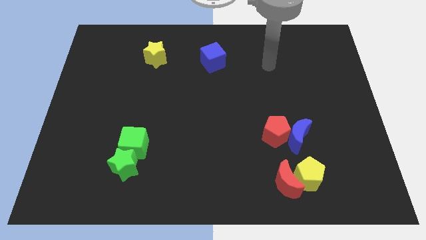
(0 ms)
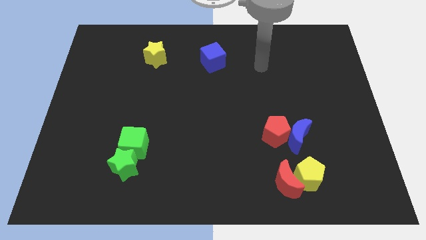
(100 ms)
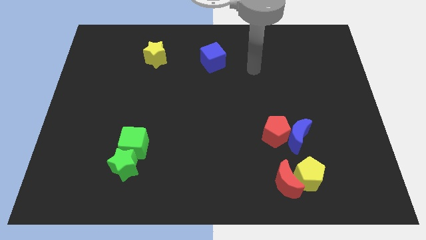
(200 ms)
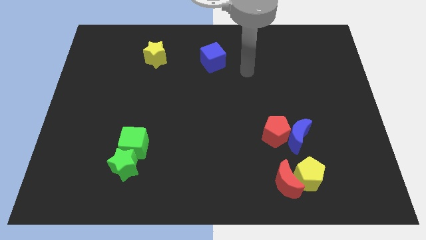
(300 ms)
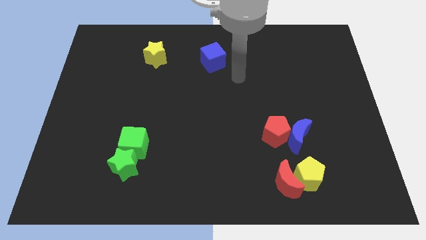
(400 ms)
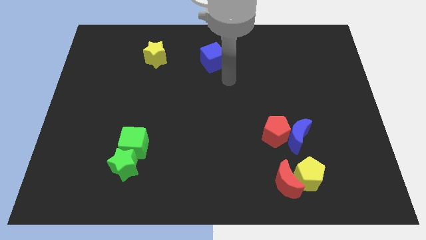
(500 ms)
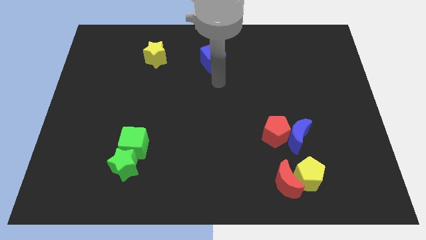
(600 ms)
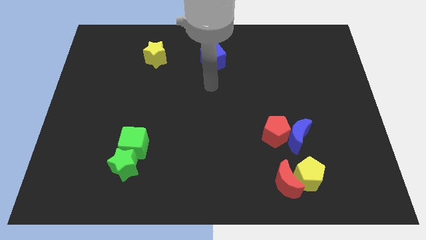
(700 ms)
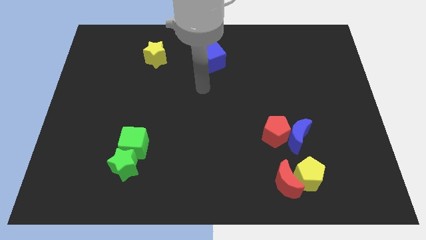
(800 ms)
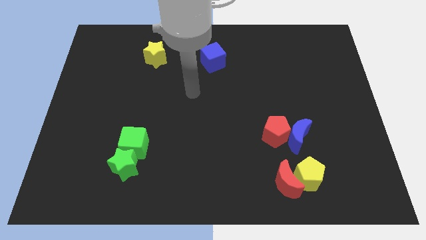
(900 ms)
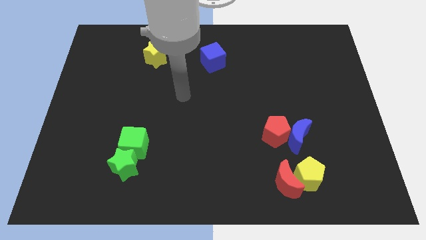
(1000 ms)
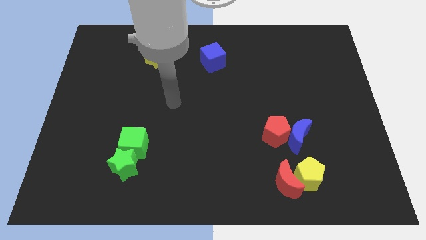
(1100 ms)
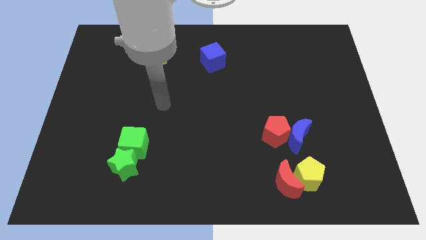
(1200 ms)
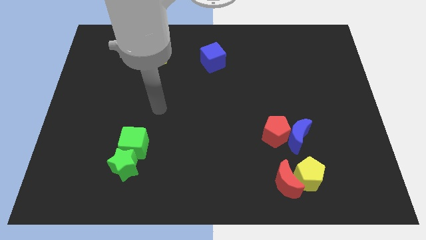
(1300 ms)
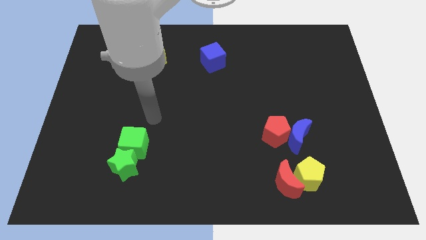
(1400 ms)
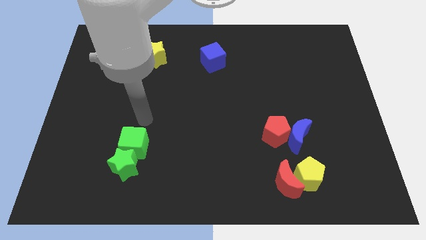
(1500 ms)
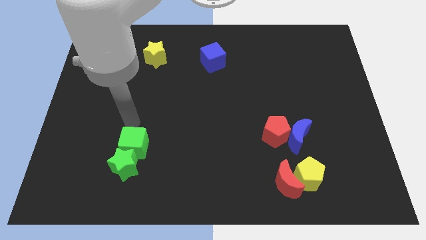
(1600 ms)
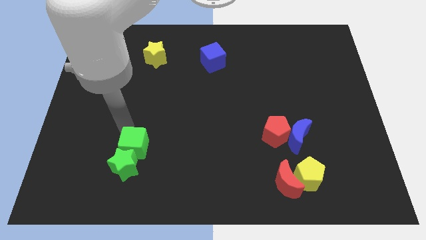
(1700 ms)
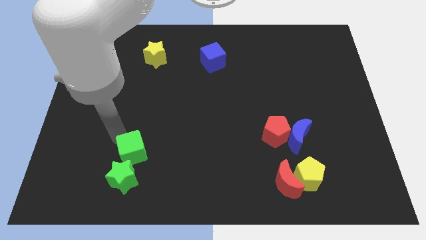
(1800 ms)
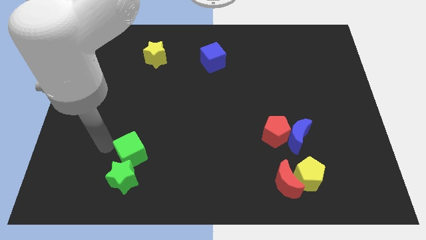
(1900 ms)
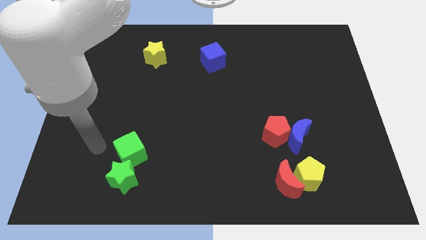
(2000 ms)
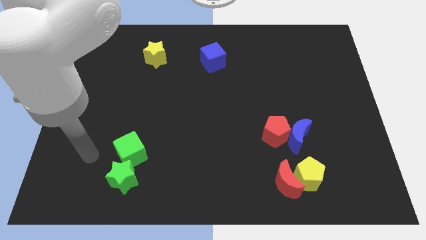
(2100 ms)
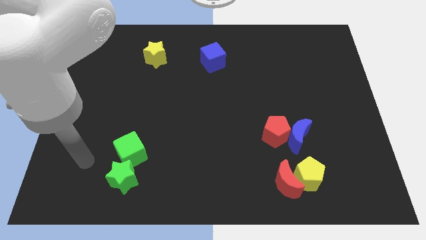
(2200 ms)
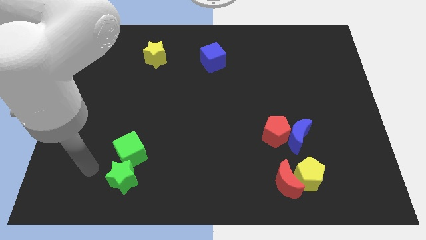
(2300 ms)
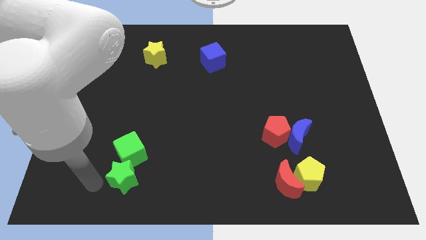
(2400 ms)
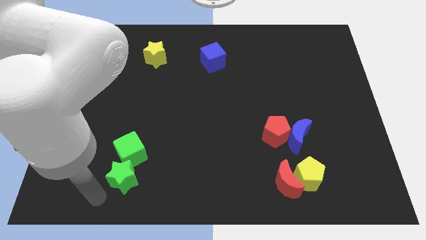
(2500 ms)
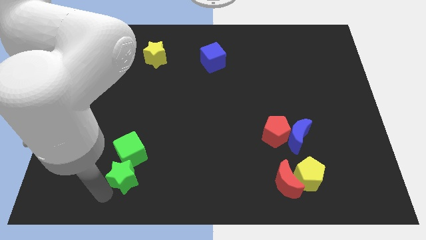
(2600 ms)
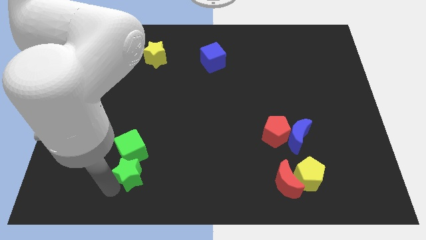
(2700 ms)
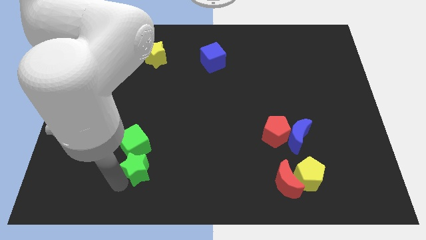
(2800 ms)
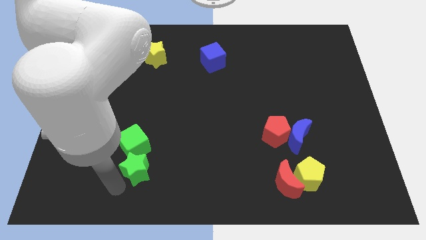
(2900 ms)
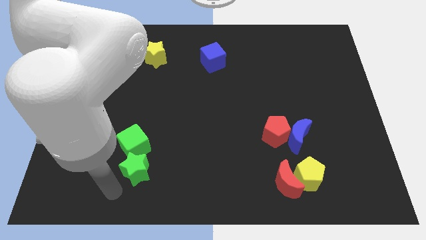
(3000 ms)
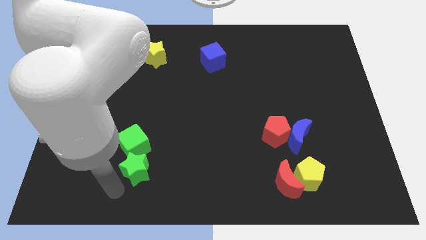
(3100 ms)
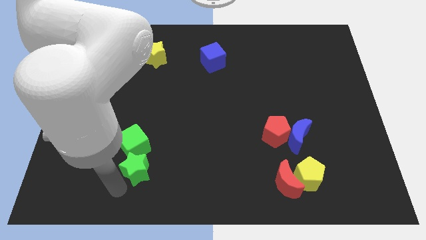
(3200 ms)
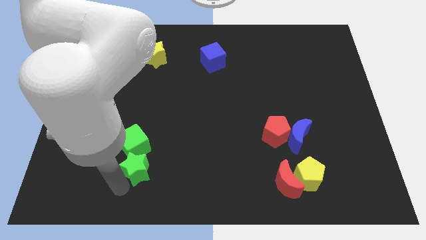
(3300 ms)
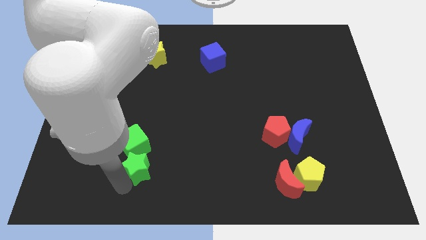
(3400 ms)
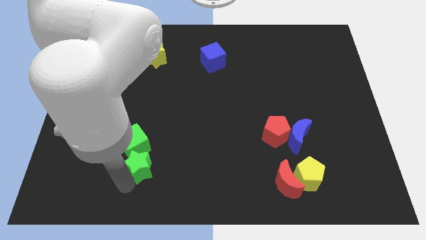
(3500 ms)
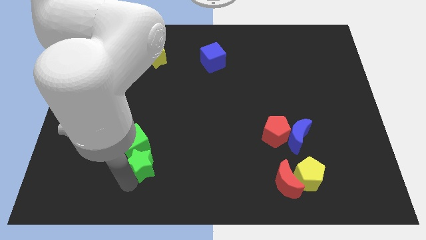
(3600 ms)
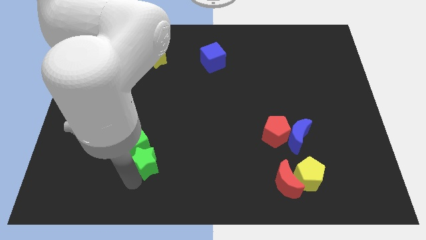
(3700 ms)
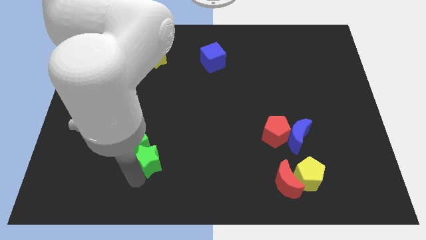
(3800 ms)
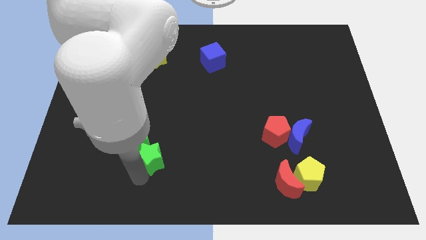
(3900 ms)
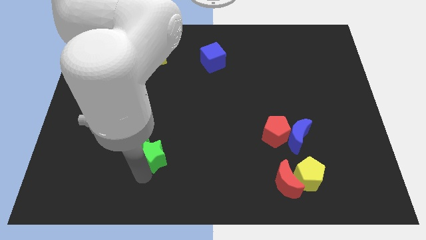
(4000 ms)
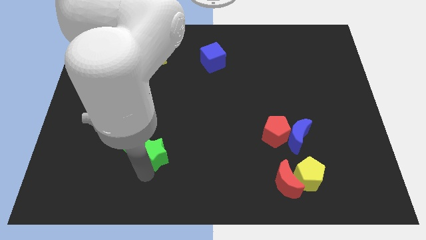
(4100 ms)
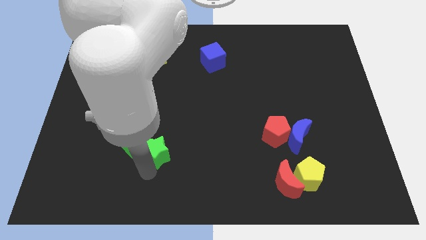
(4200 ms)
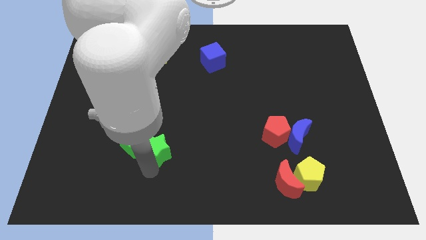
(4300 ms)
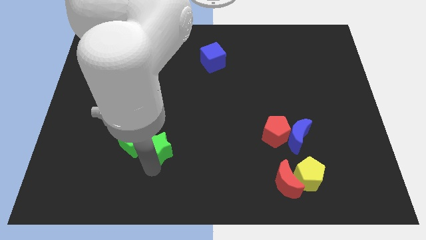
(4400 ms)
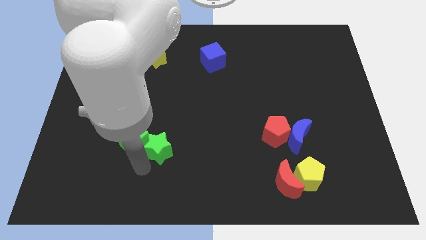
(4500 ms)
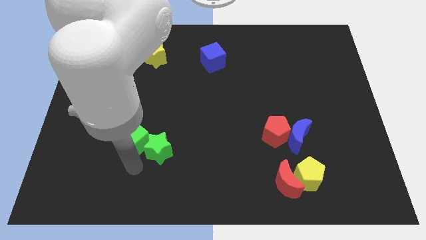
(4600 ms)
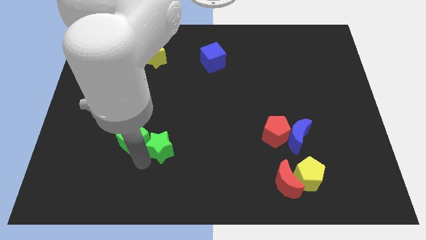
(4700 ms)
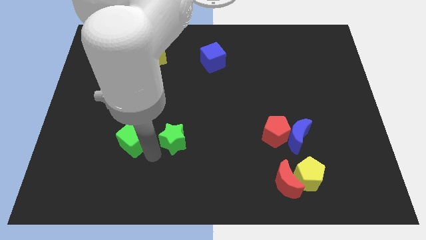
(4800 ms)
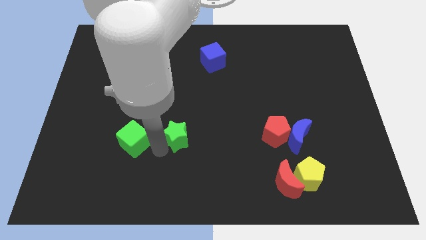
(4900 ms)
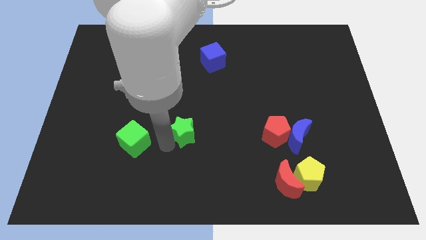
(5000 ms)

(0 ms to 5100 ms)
slide the green star to the middle of the board

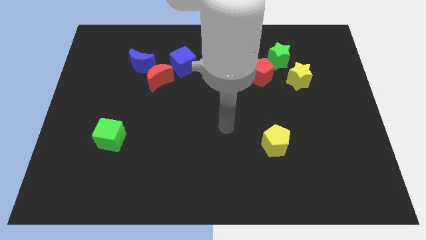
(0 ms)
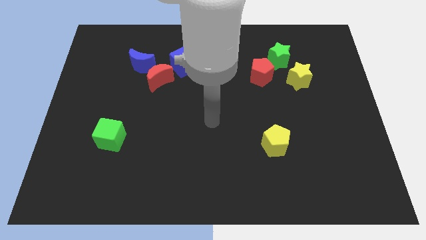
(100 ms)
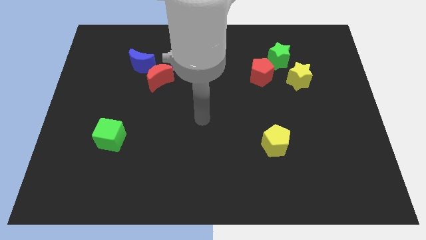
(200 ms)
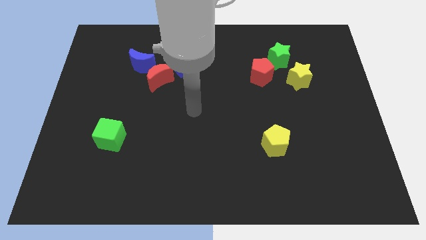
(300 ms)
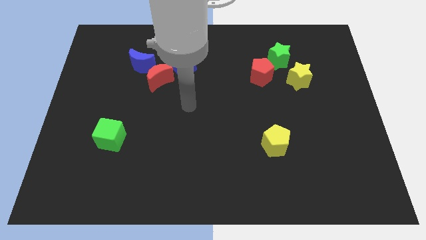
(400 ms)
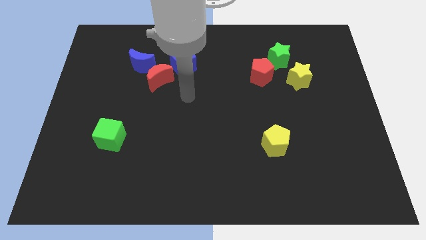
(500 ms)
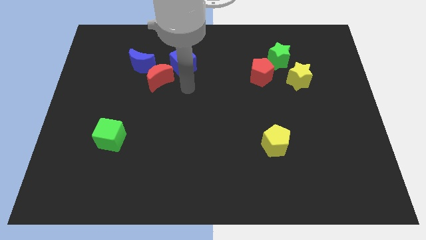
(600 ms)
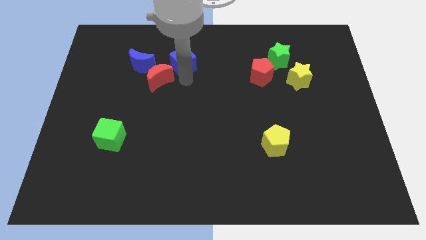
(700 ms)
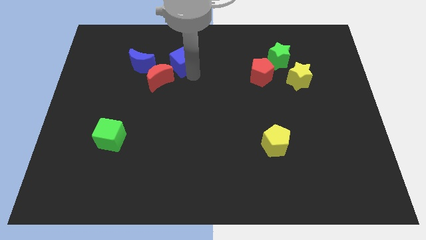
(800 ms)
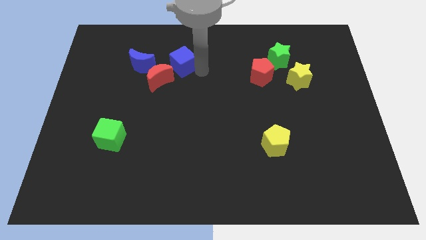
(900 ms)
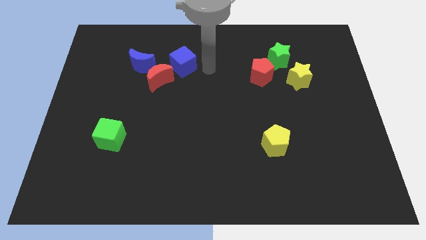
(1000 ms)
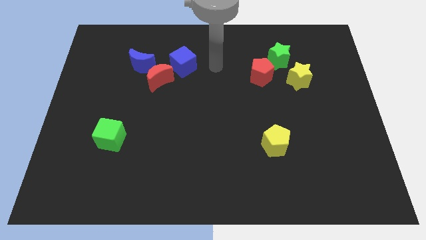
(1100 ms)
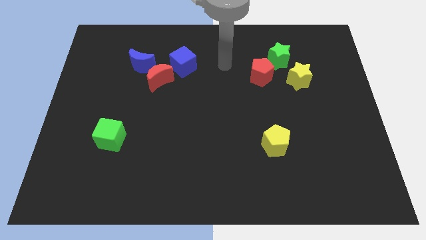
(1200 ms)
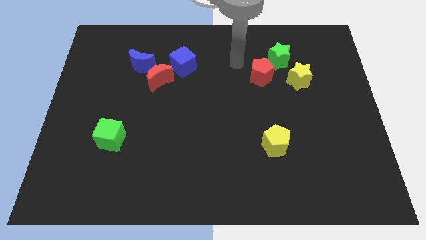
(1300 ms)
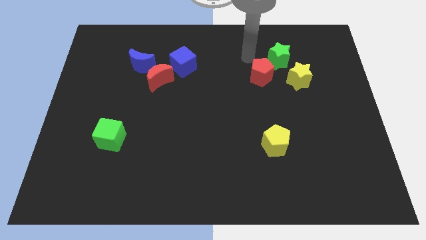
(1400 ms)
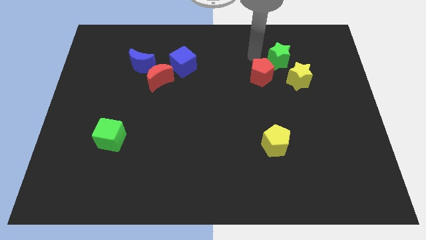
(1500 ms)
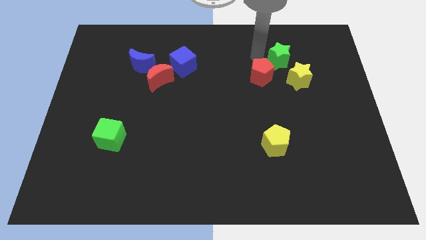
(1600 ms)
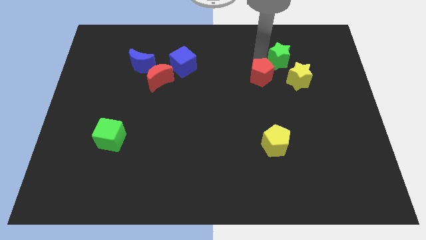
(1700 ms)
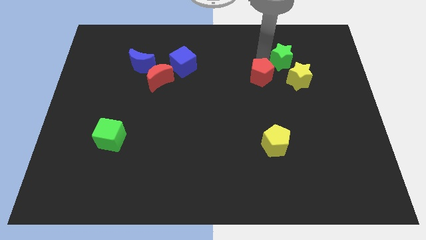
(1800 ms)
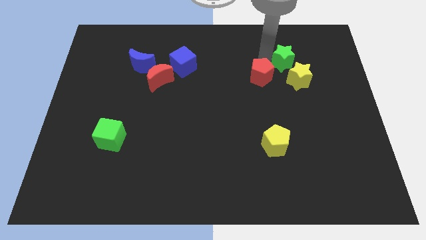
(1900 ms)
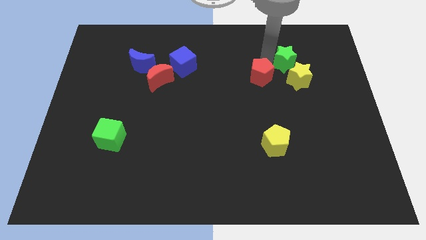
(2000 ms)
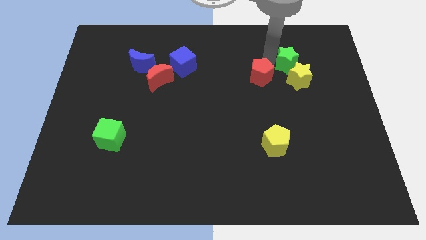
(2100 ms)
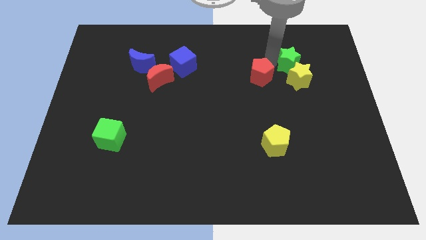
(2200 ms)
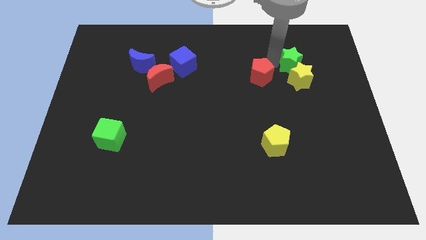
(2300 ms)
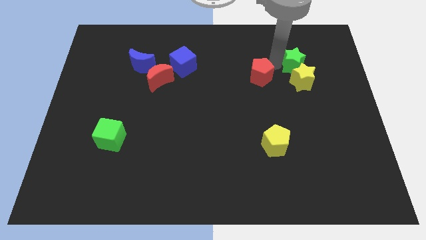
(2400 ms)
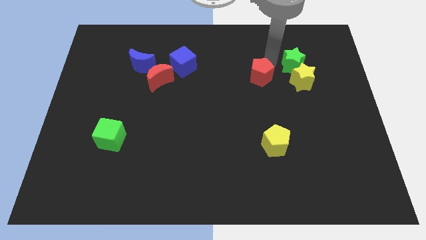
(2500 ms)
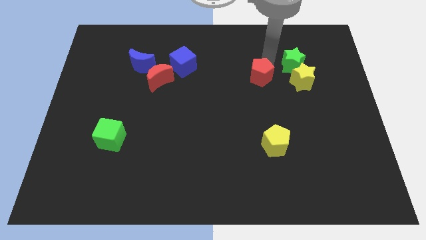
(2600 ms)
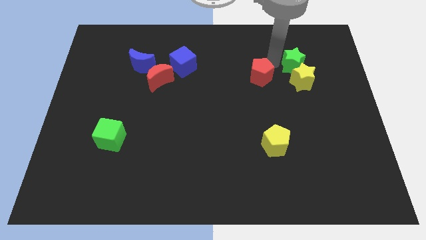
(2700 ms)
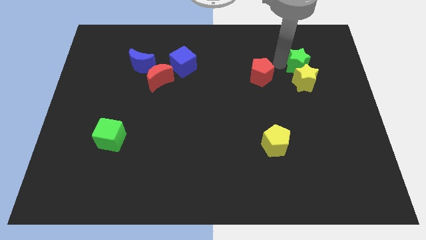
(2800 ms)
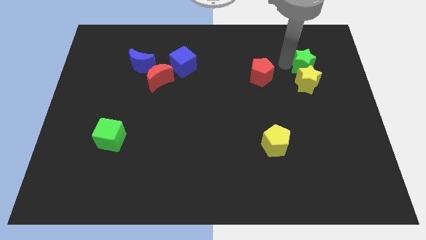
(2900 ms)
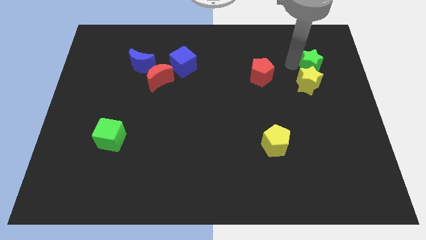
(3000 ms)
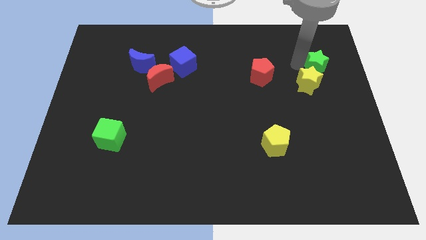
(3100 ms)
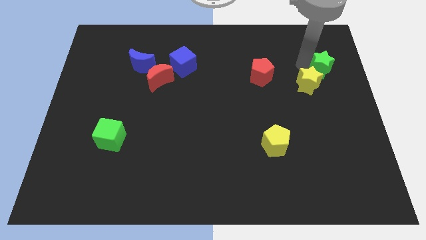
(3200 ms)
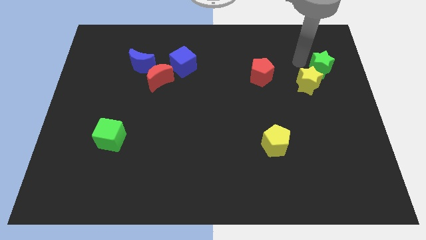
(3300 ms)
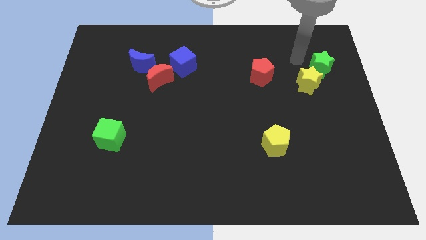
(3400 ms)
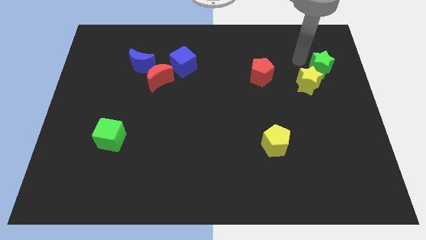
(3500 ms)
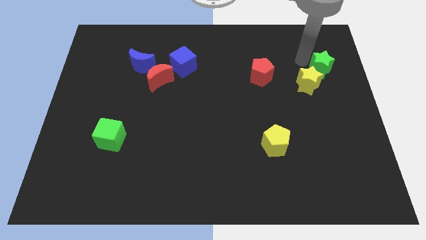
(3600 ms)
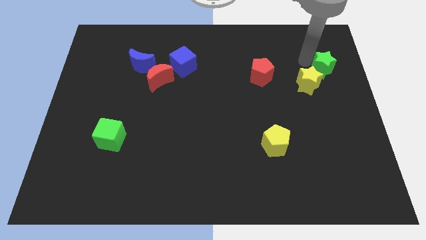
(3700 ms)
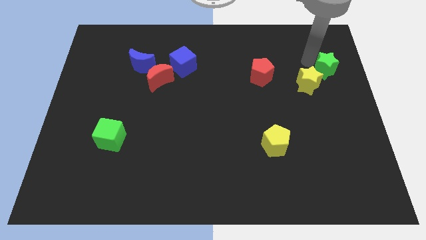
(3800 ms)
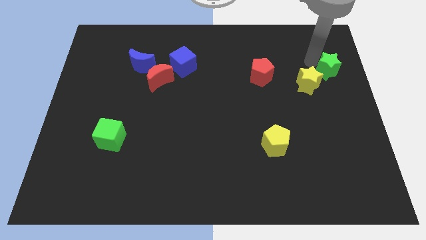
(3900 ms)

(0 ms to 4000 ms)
push the green star to the right side of the board
